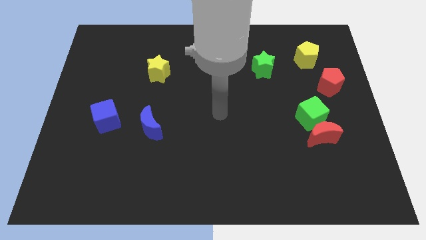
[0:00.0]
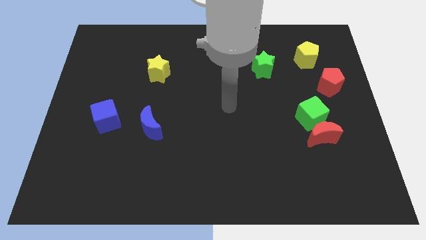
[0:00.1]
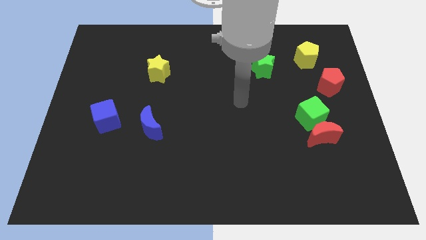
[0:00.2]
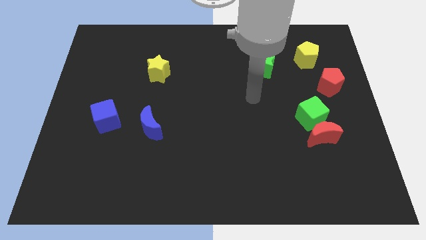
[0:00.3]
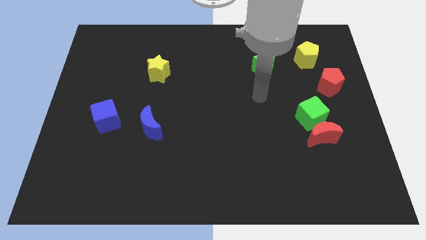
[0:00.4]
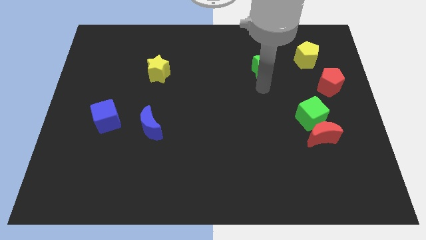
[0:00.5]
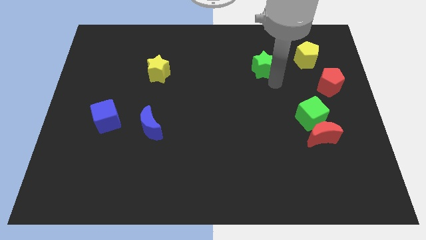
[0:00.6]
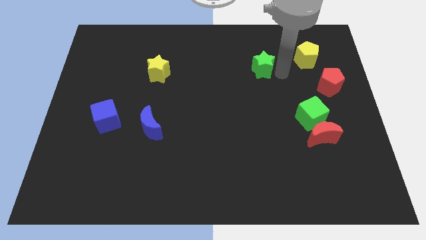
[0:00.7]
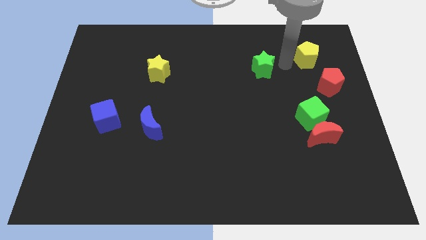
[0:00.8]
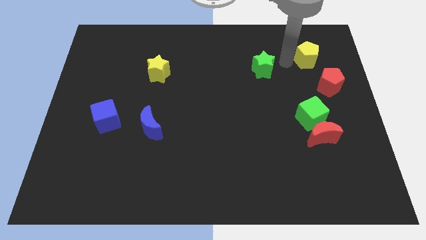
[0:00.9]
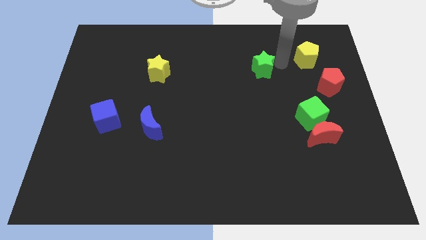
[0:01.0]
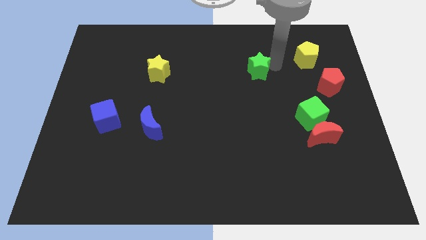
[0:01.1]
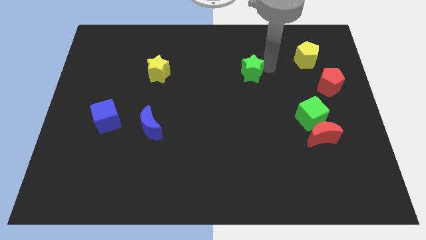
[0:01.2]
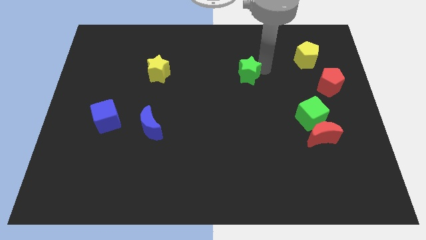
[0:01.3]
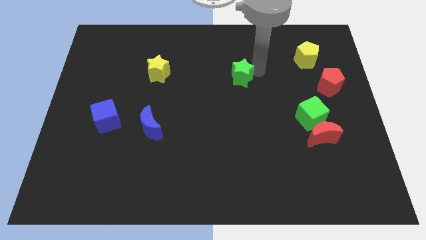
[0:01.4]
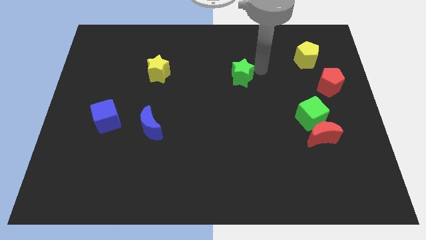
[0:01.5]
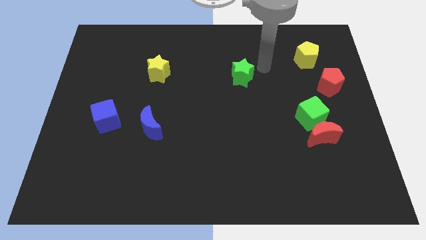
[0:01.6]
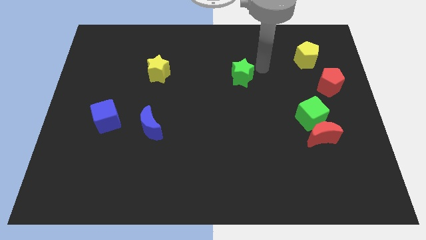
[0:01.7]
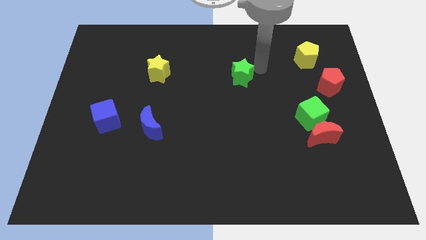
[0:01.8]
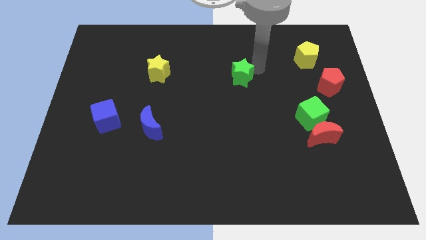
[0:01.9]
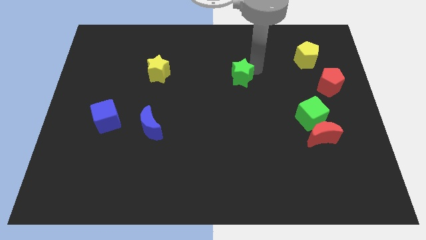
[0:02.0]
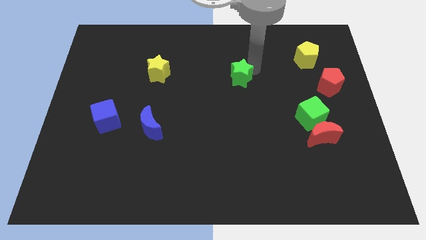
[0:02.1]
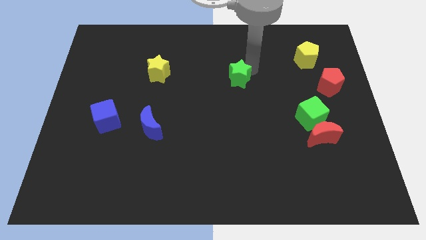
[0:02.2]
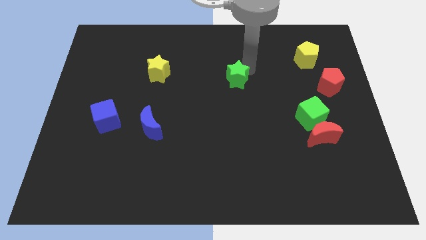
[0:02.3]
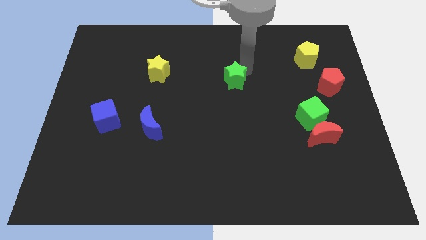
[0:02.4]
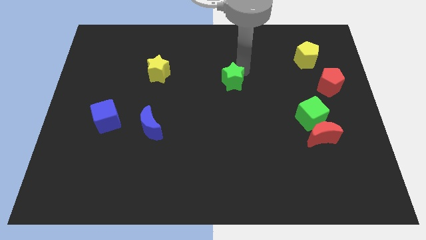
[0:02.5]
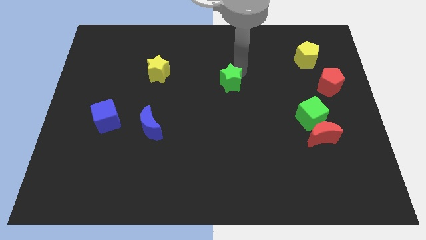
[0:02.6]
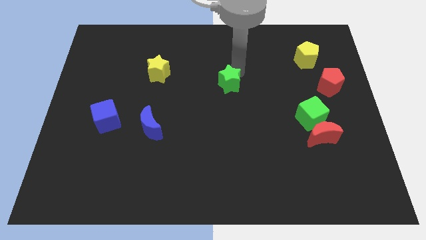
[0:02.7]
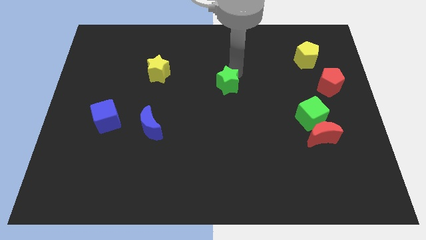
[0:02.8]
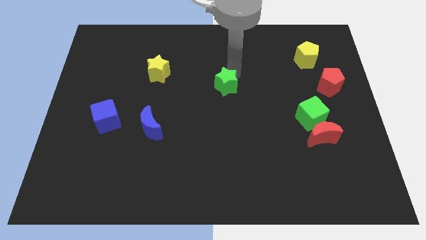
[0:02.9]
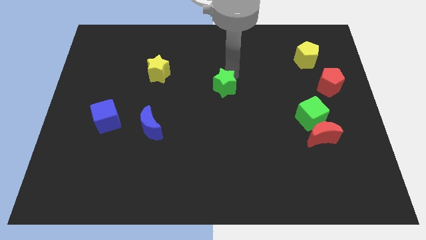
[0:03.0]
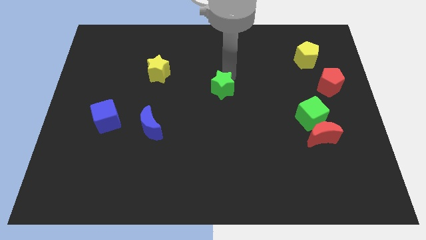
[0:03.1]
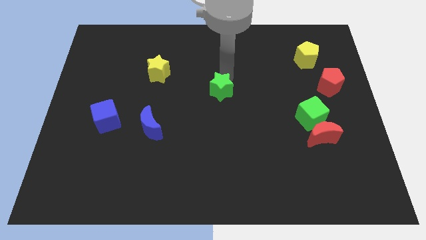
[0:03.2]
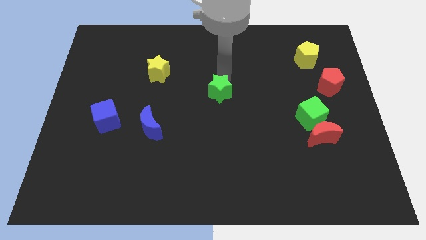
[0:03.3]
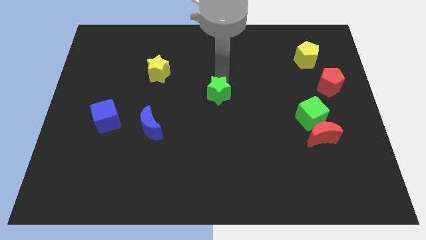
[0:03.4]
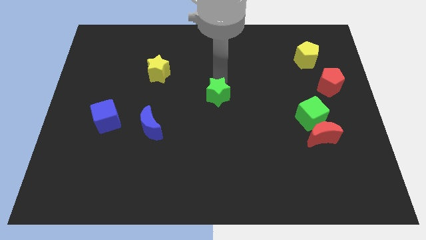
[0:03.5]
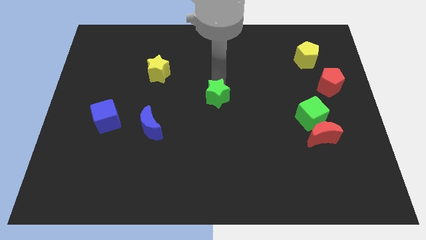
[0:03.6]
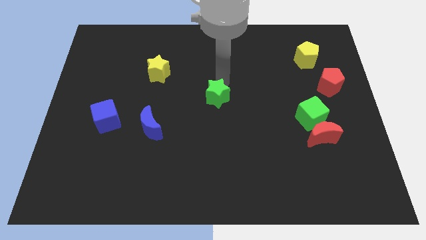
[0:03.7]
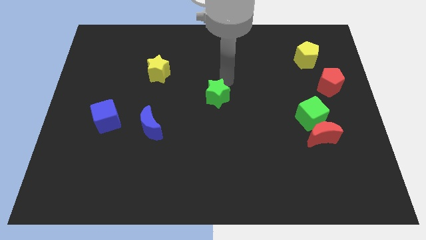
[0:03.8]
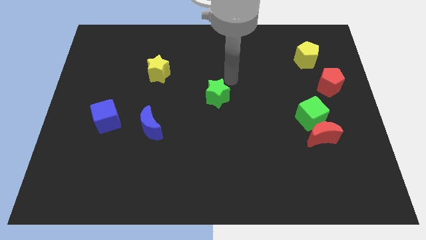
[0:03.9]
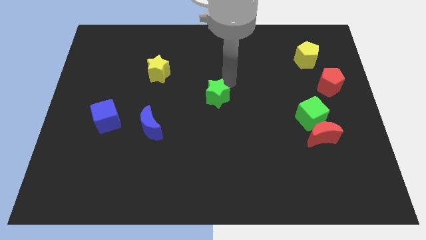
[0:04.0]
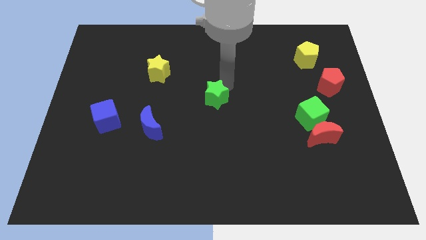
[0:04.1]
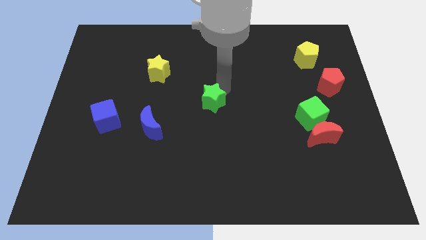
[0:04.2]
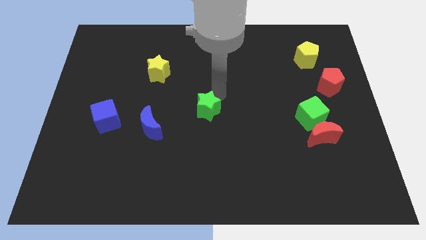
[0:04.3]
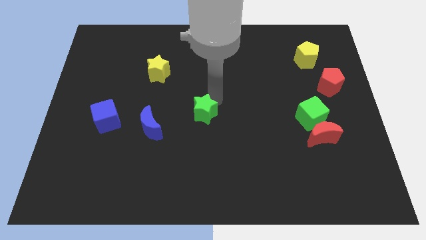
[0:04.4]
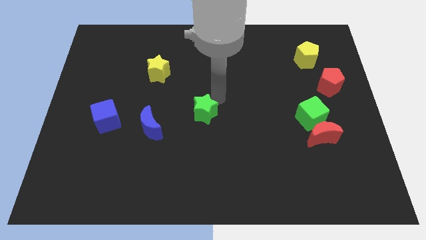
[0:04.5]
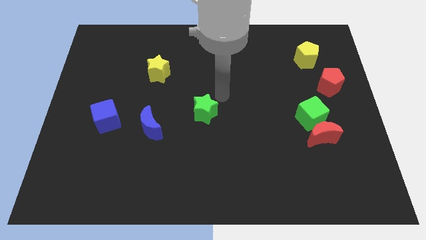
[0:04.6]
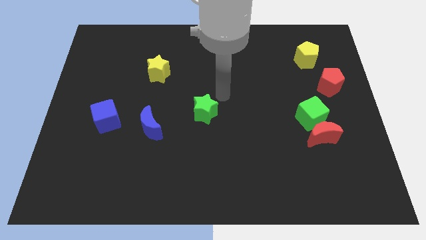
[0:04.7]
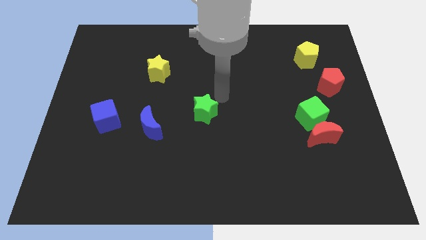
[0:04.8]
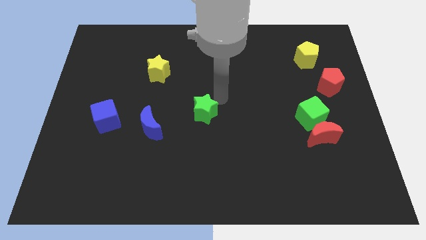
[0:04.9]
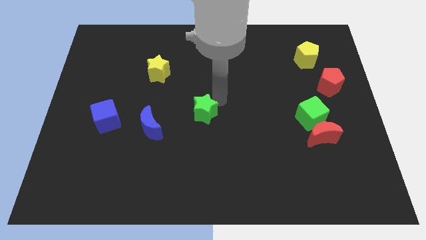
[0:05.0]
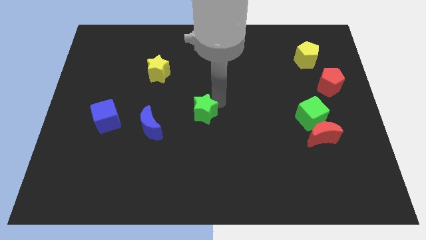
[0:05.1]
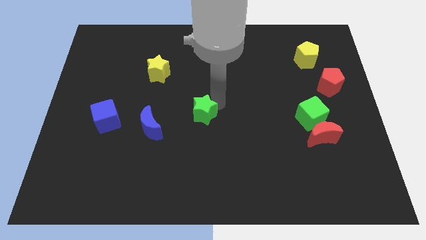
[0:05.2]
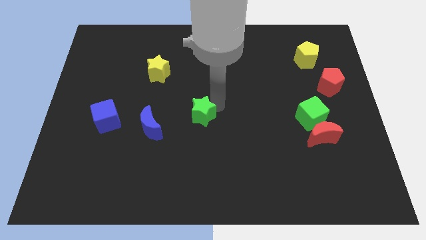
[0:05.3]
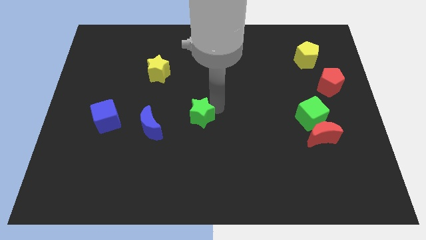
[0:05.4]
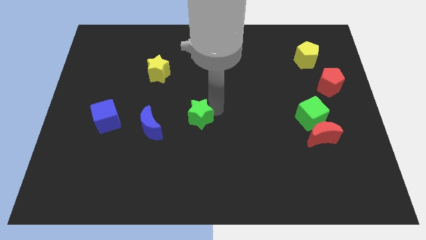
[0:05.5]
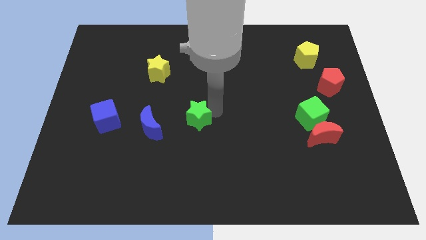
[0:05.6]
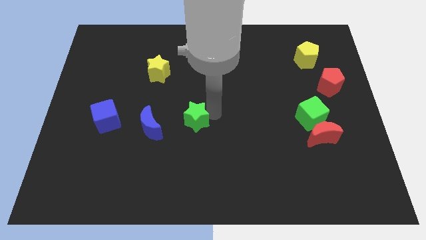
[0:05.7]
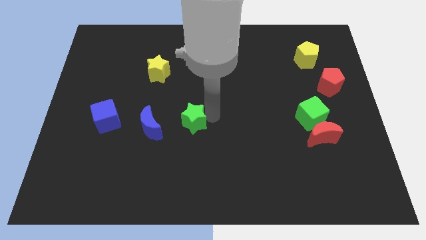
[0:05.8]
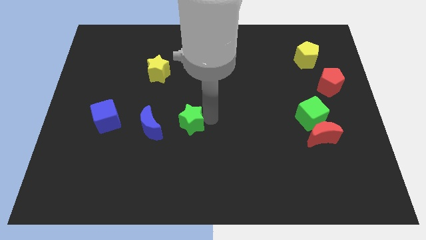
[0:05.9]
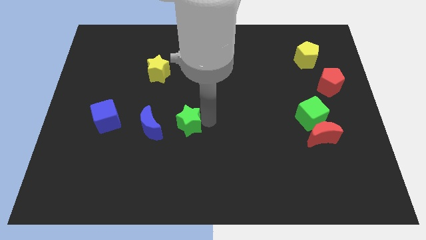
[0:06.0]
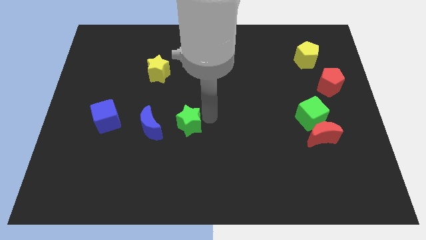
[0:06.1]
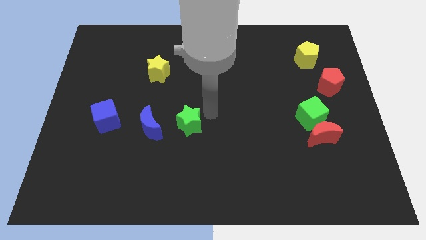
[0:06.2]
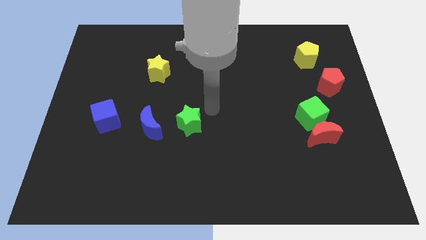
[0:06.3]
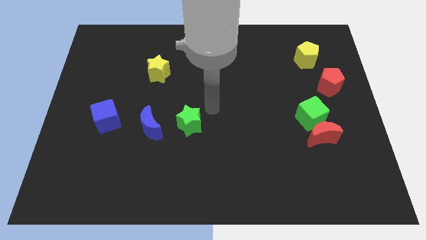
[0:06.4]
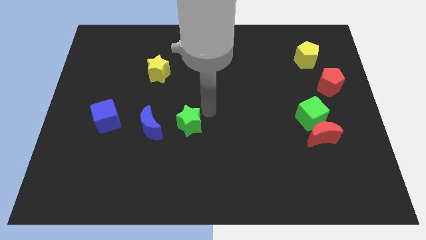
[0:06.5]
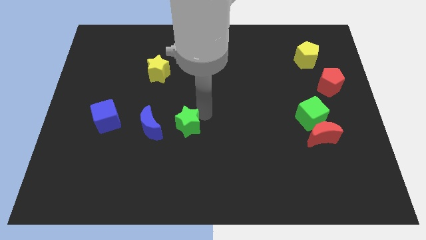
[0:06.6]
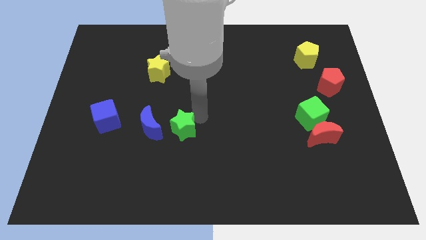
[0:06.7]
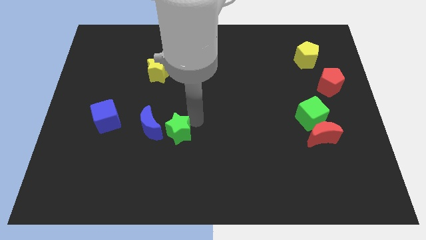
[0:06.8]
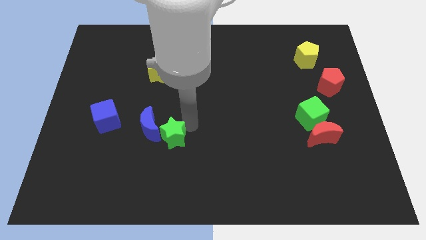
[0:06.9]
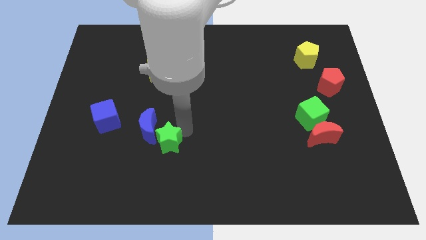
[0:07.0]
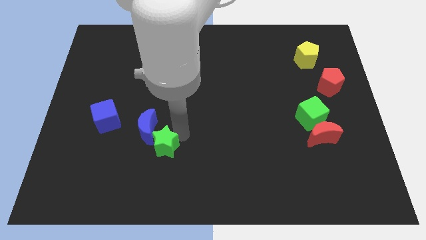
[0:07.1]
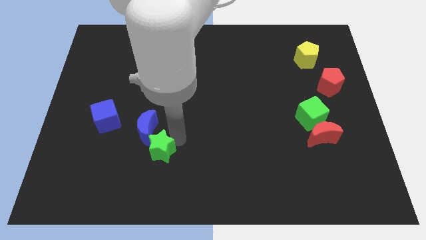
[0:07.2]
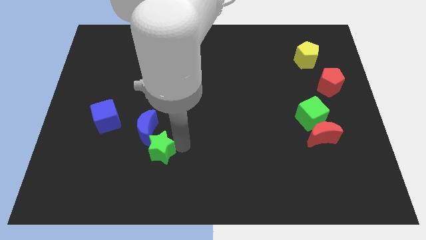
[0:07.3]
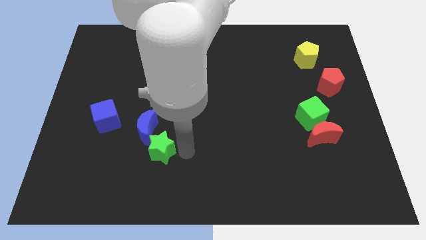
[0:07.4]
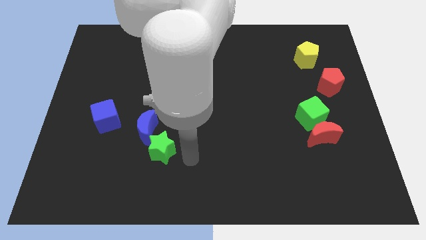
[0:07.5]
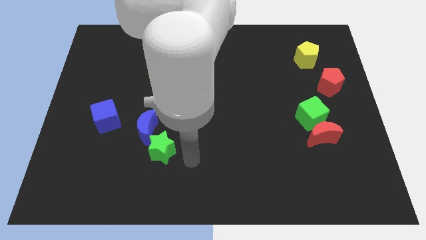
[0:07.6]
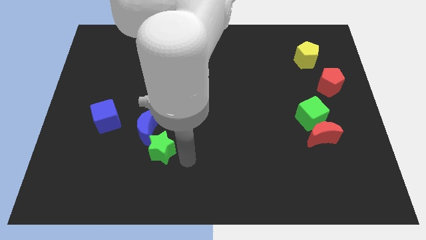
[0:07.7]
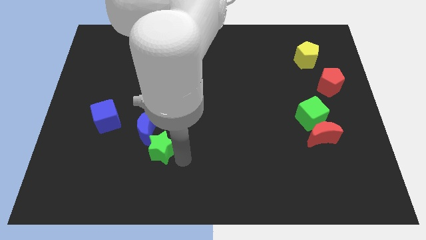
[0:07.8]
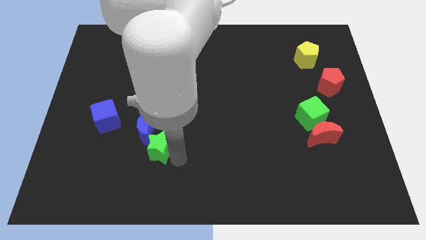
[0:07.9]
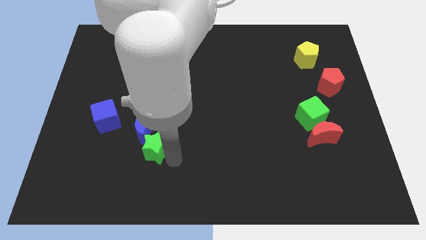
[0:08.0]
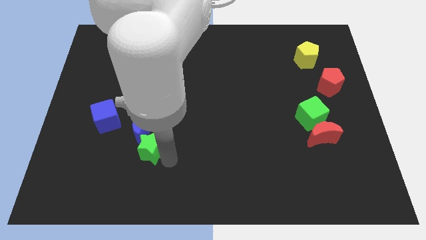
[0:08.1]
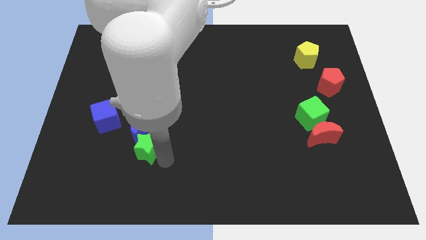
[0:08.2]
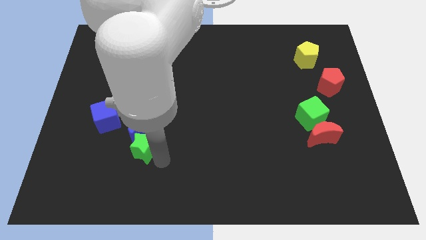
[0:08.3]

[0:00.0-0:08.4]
slide the green star to the bottom right of the blue cube
